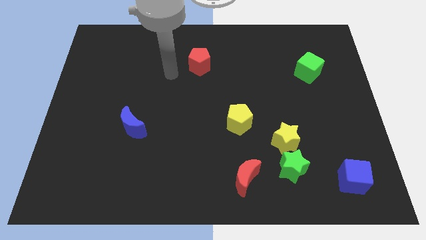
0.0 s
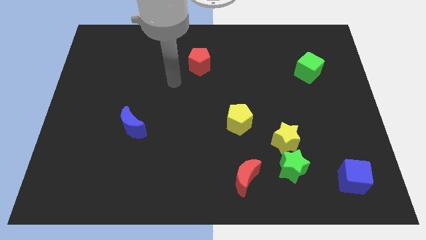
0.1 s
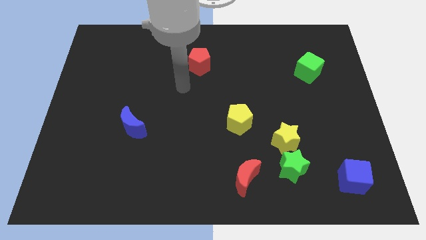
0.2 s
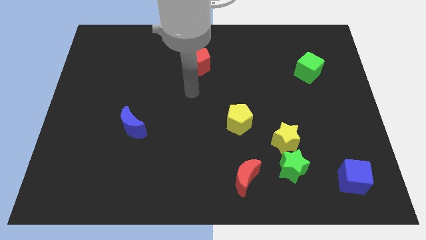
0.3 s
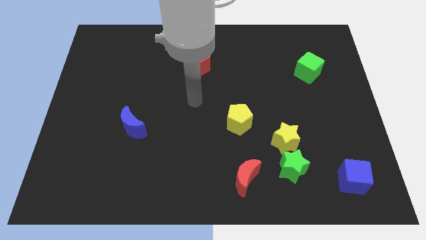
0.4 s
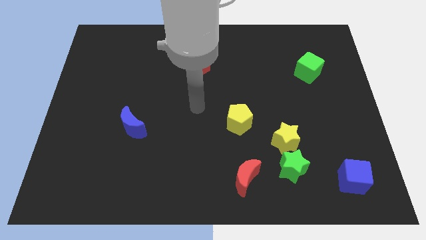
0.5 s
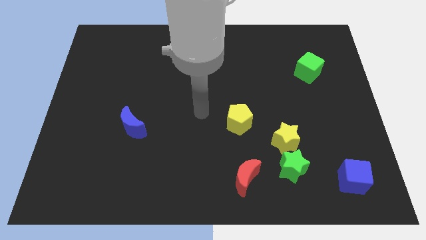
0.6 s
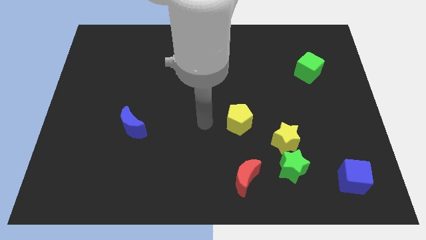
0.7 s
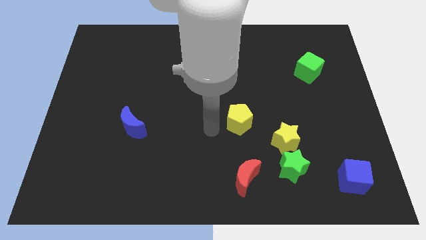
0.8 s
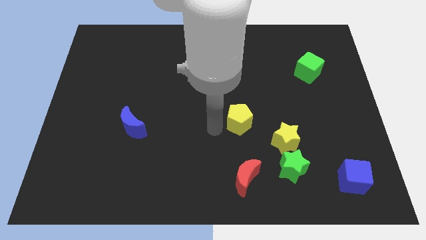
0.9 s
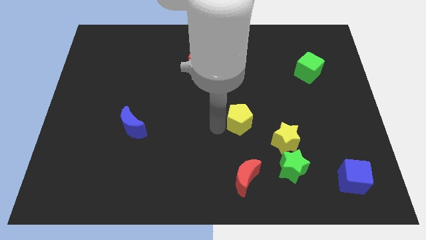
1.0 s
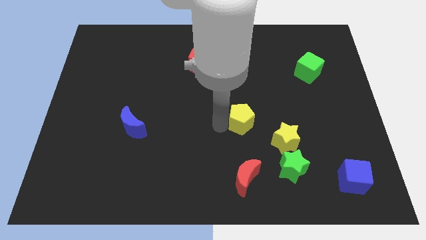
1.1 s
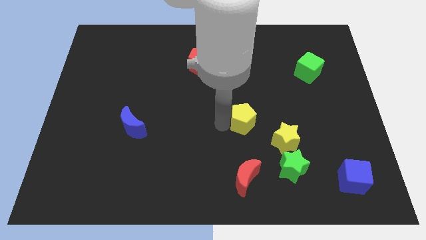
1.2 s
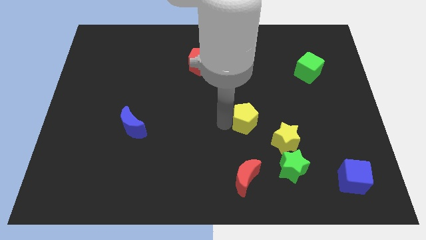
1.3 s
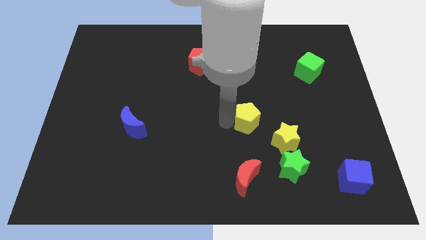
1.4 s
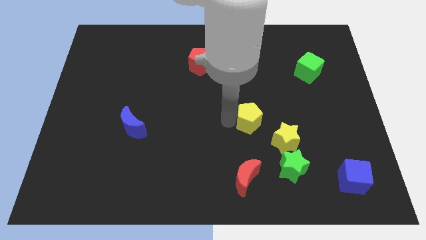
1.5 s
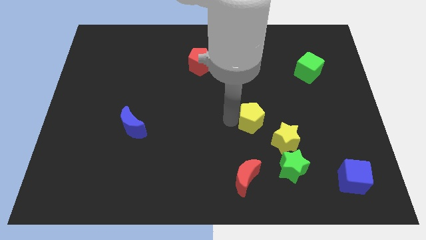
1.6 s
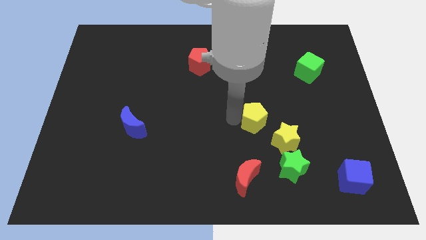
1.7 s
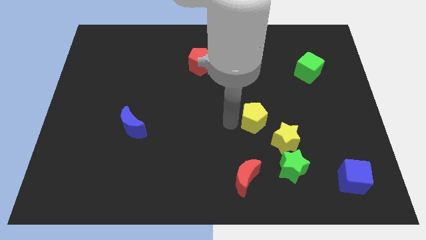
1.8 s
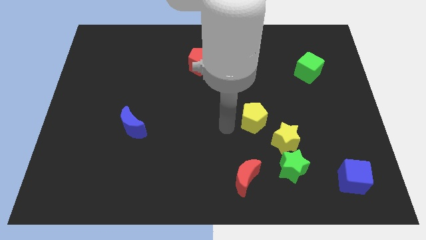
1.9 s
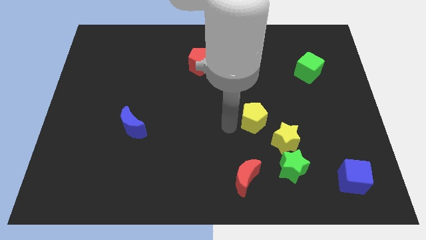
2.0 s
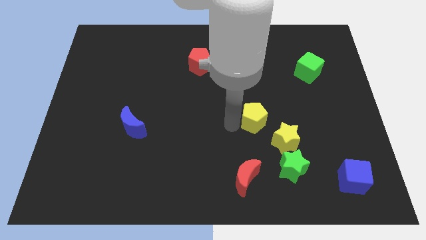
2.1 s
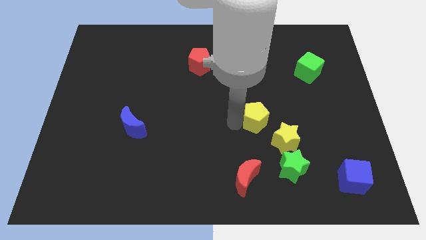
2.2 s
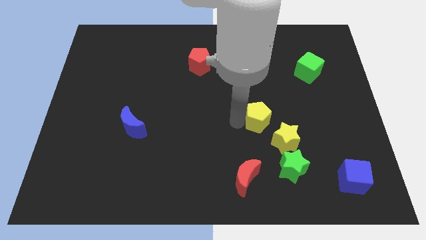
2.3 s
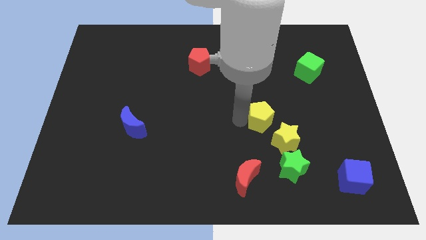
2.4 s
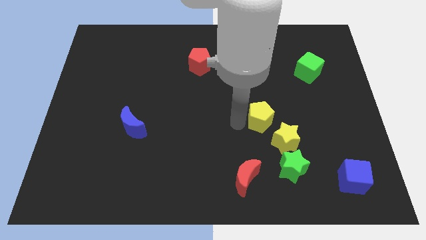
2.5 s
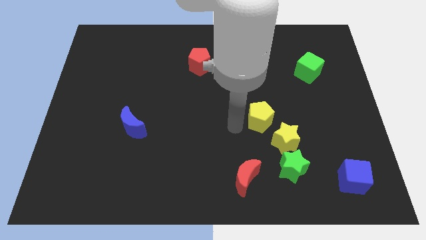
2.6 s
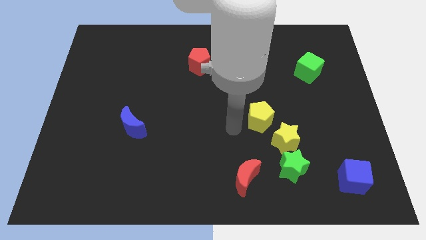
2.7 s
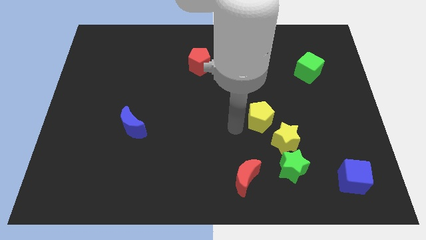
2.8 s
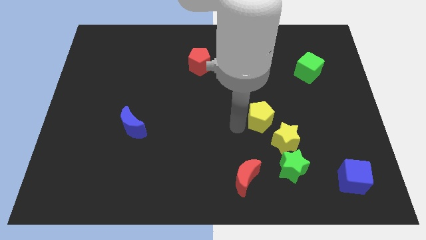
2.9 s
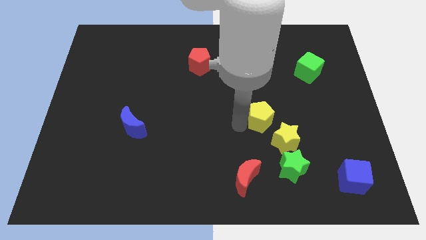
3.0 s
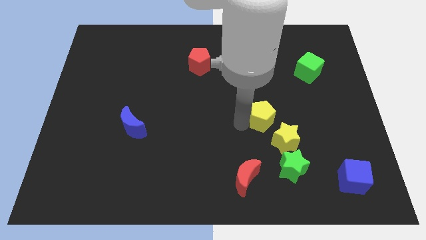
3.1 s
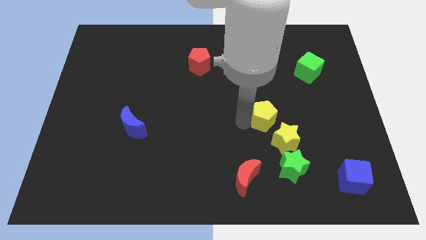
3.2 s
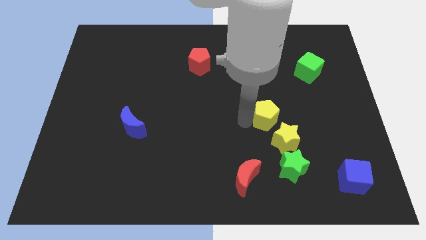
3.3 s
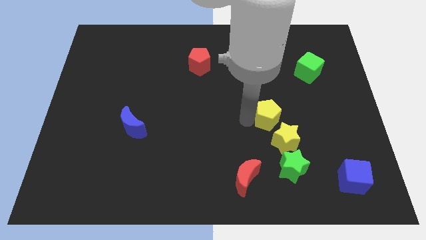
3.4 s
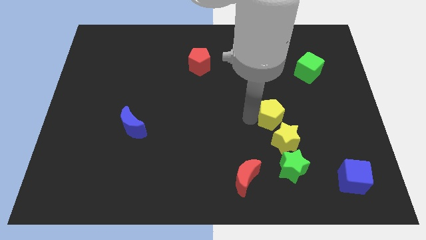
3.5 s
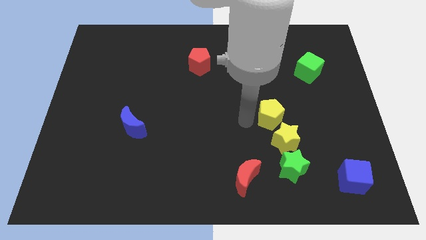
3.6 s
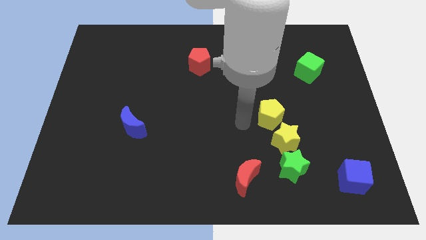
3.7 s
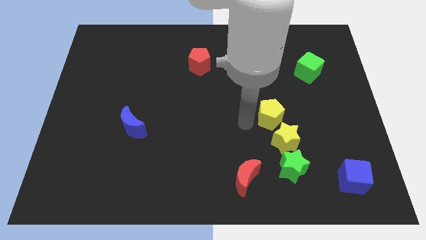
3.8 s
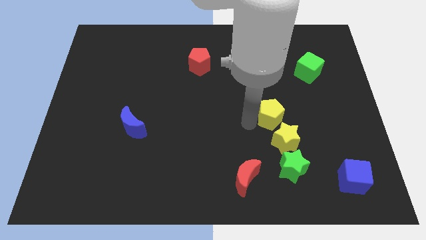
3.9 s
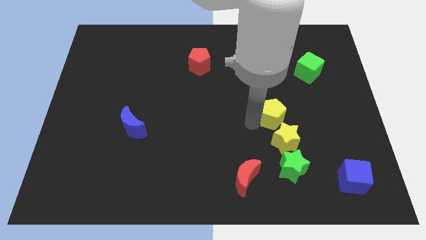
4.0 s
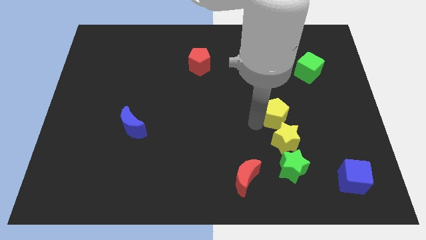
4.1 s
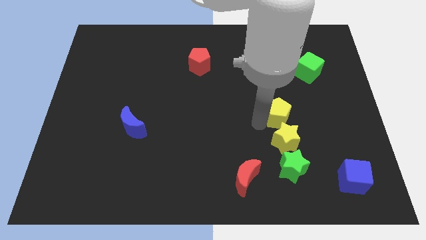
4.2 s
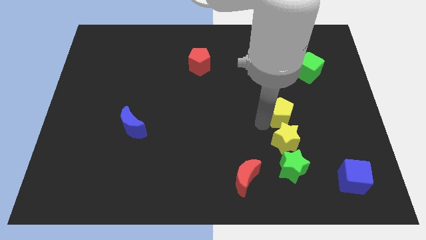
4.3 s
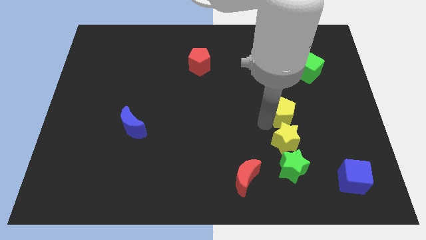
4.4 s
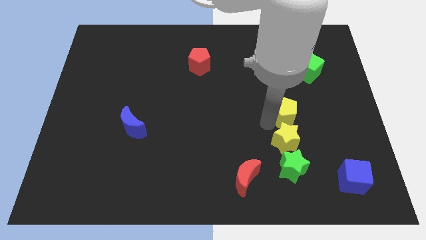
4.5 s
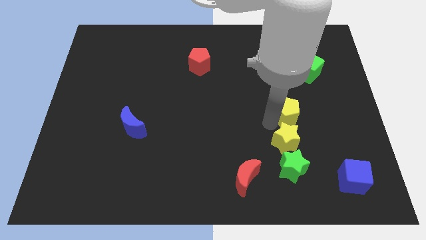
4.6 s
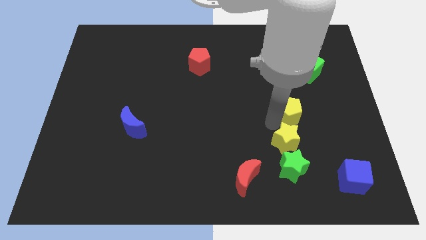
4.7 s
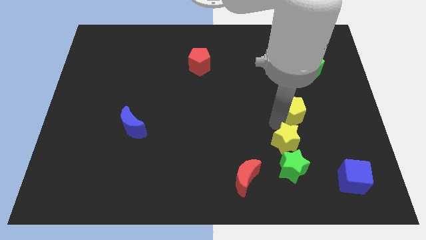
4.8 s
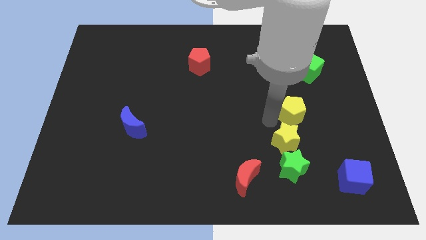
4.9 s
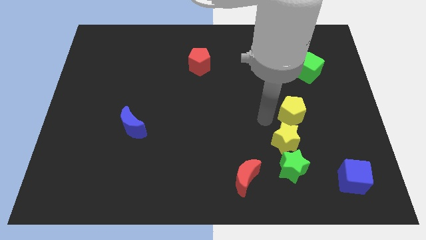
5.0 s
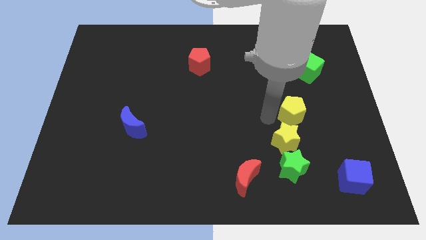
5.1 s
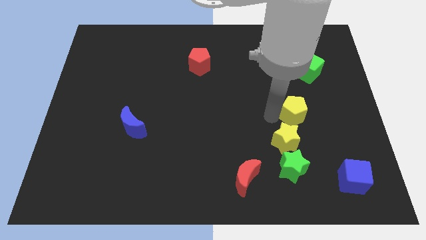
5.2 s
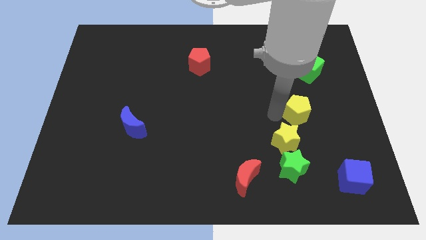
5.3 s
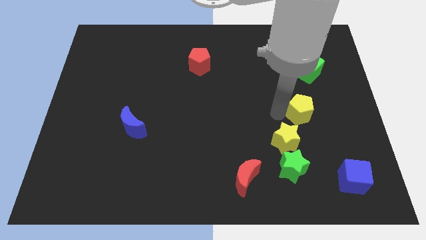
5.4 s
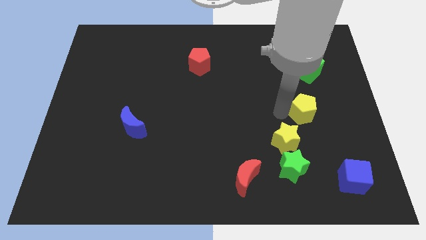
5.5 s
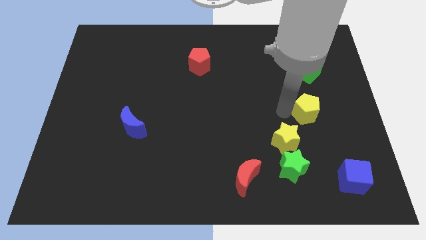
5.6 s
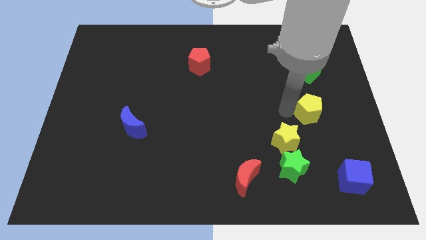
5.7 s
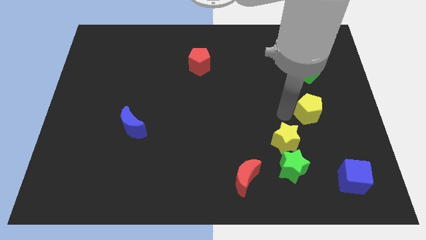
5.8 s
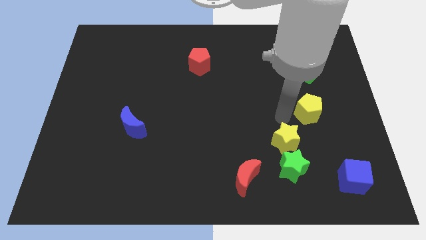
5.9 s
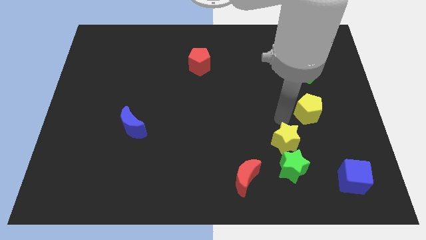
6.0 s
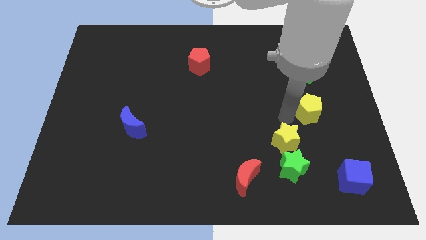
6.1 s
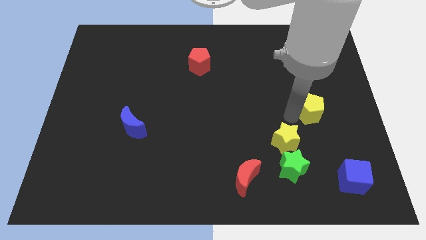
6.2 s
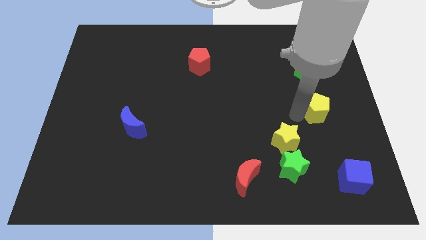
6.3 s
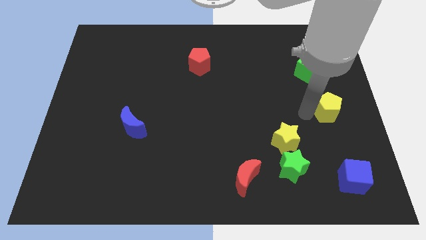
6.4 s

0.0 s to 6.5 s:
push the yellow pentagon to the right side

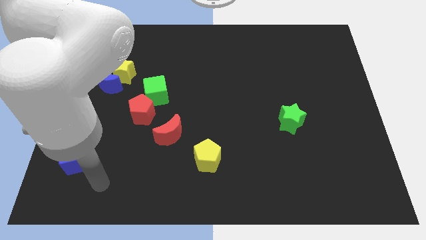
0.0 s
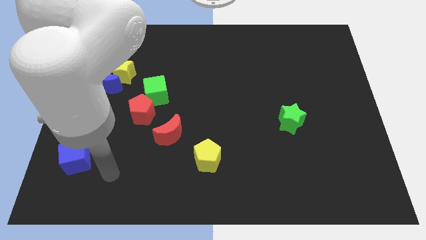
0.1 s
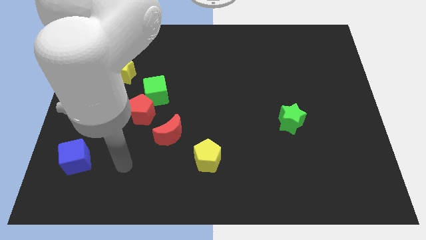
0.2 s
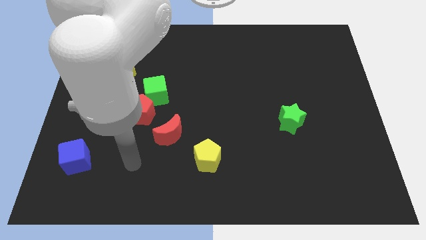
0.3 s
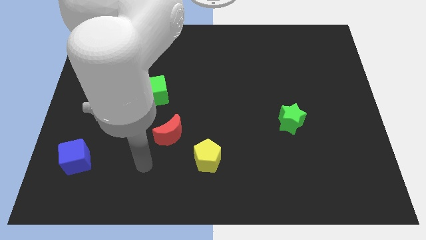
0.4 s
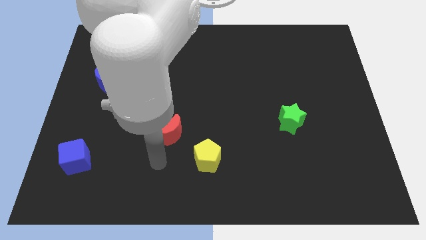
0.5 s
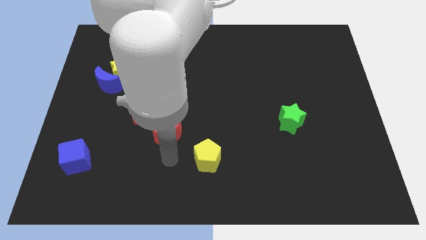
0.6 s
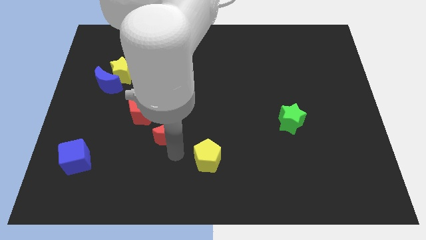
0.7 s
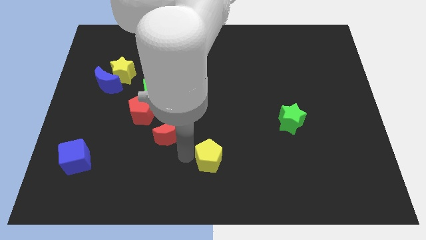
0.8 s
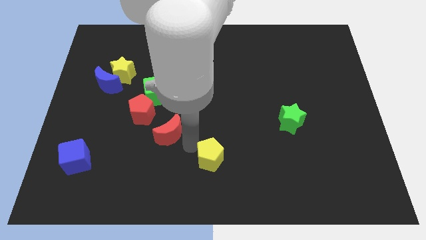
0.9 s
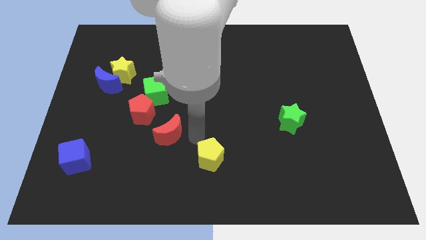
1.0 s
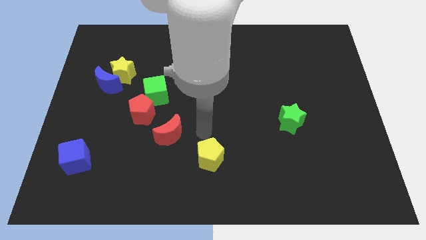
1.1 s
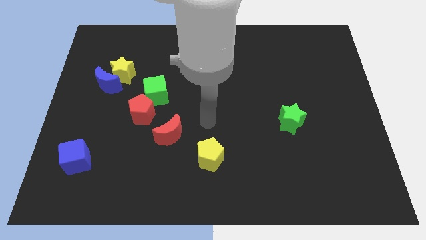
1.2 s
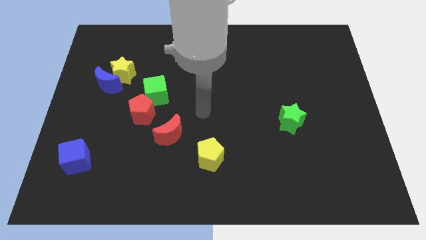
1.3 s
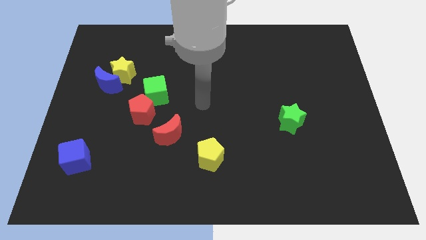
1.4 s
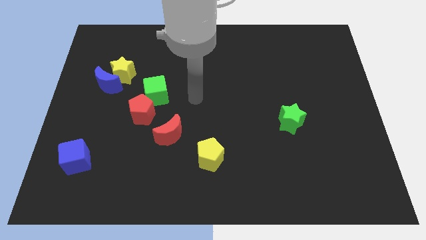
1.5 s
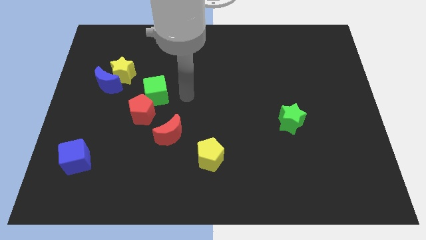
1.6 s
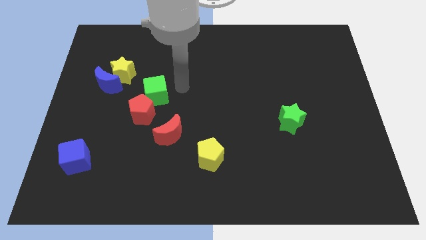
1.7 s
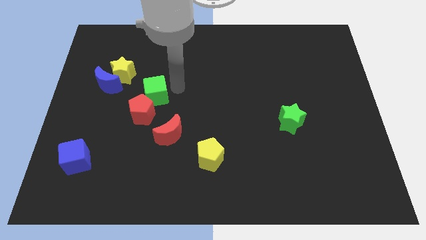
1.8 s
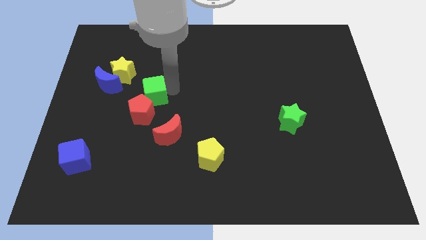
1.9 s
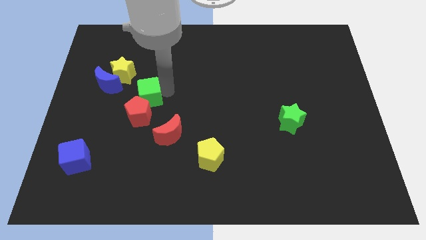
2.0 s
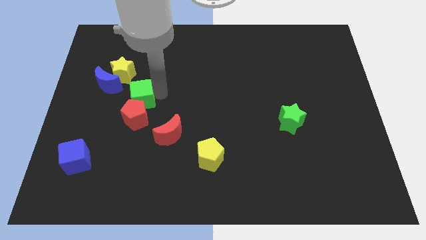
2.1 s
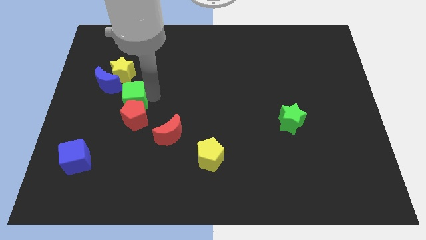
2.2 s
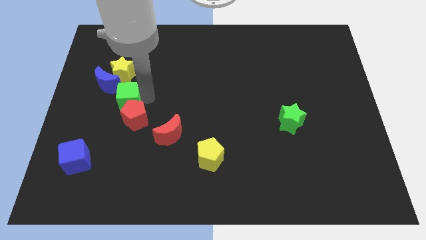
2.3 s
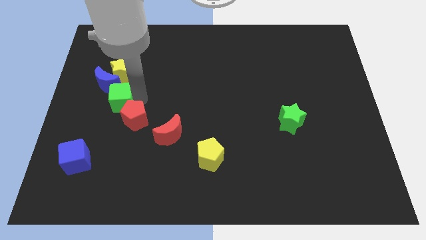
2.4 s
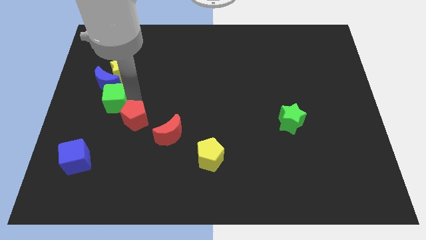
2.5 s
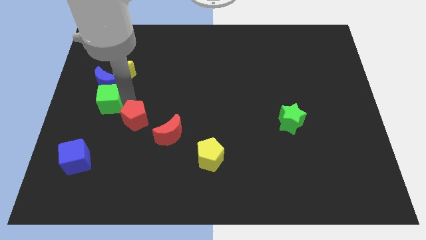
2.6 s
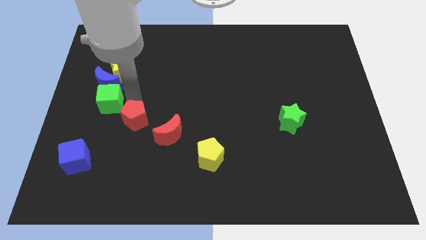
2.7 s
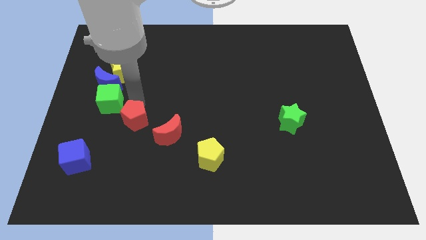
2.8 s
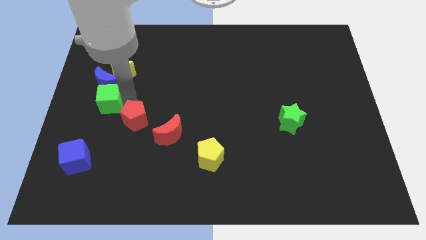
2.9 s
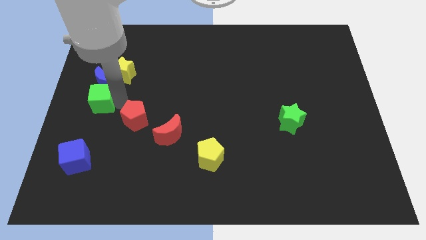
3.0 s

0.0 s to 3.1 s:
move the green cube to the left side
